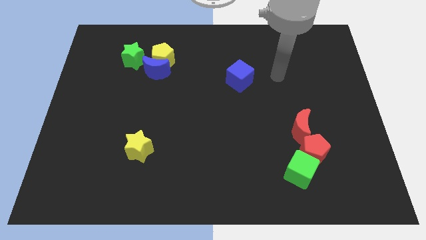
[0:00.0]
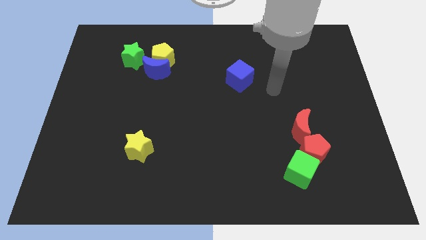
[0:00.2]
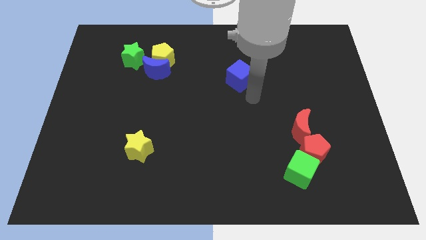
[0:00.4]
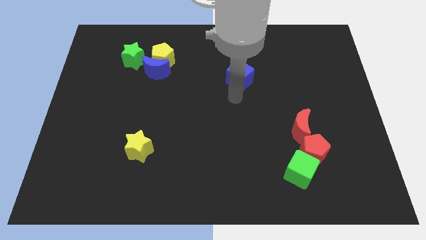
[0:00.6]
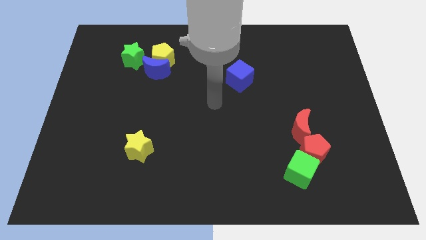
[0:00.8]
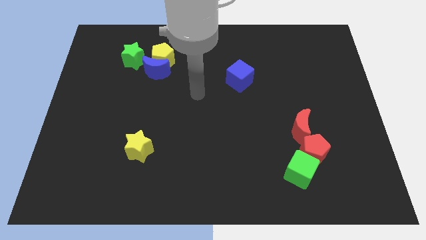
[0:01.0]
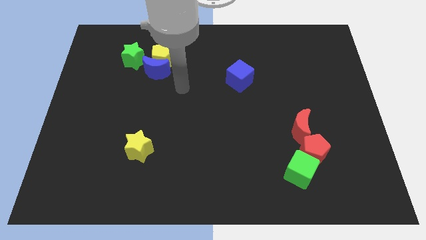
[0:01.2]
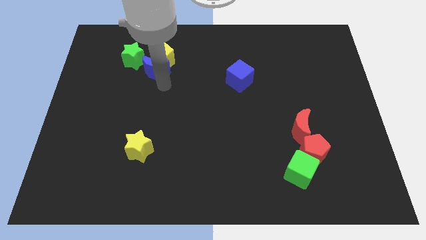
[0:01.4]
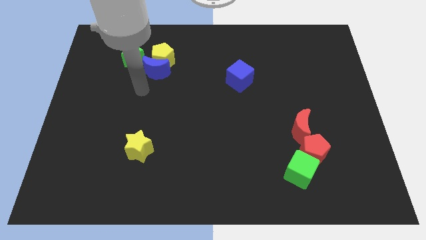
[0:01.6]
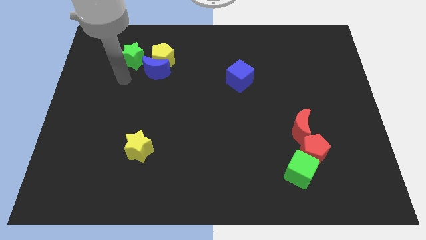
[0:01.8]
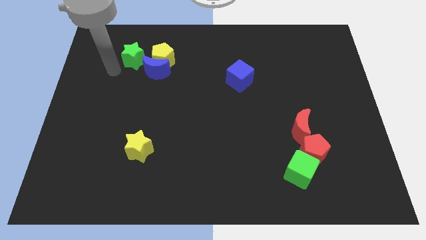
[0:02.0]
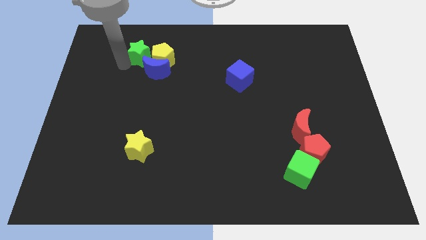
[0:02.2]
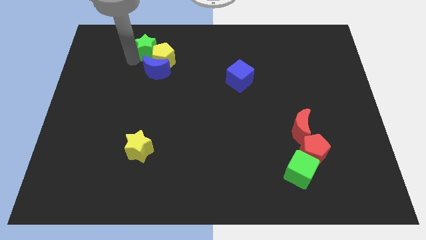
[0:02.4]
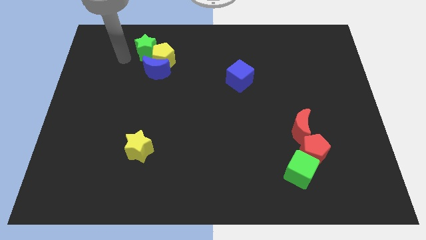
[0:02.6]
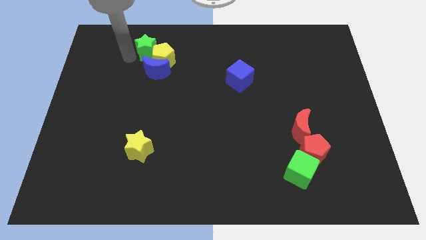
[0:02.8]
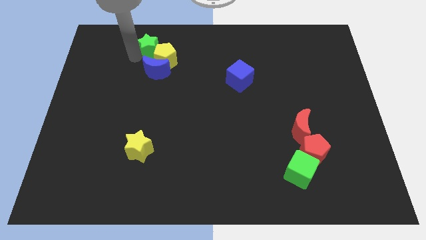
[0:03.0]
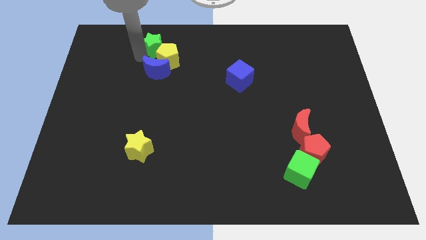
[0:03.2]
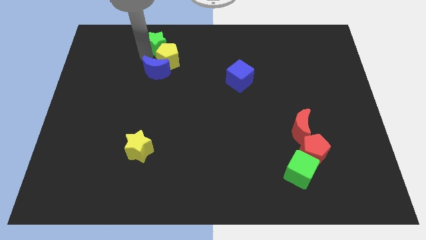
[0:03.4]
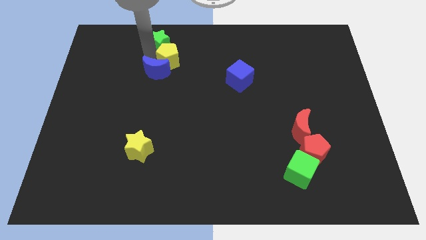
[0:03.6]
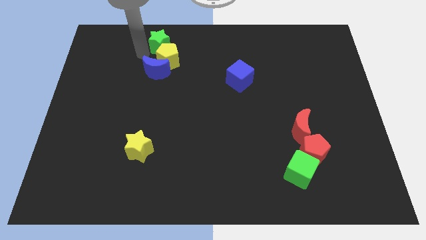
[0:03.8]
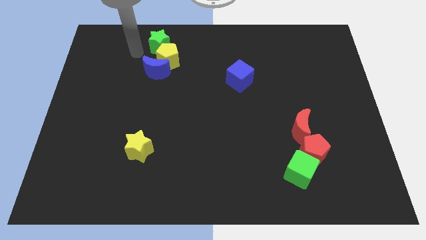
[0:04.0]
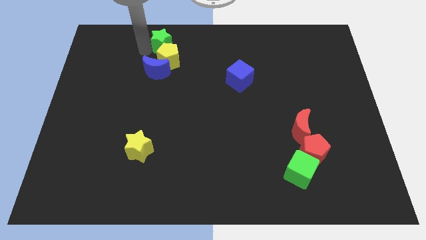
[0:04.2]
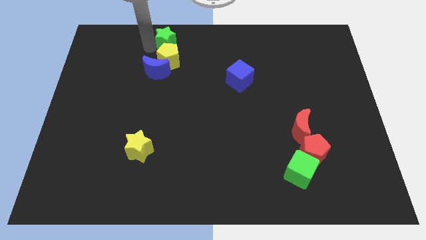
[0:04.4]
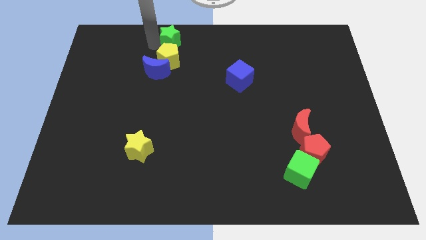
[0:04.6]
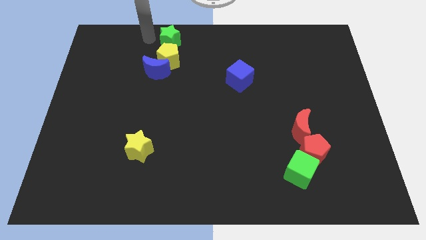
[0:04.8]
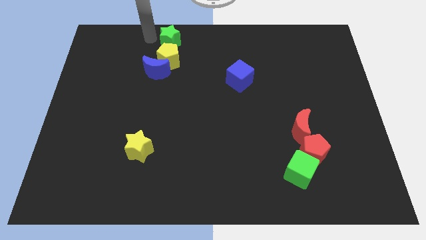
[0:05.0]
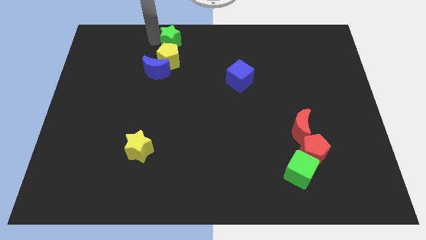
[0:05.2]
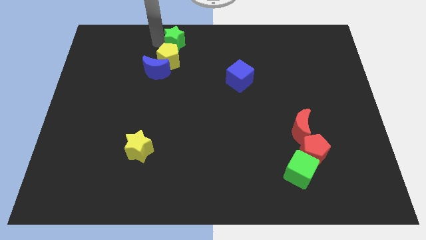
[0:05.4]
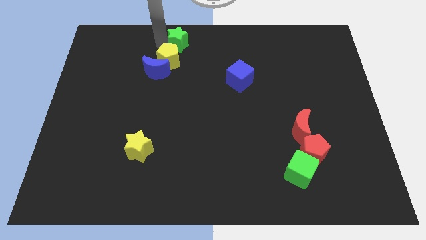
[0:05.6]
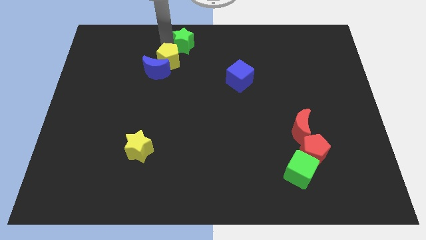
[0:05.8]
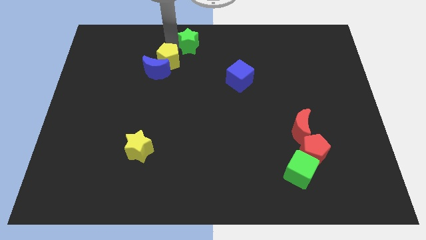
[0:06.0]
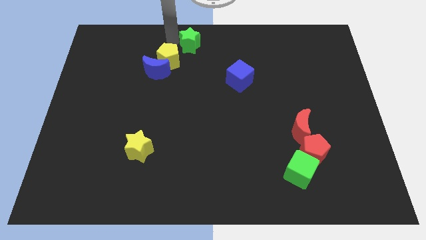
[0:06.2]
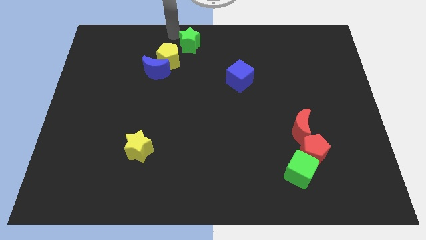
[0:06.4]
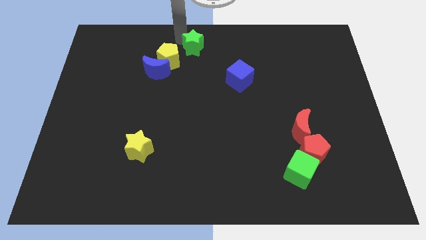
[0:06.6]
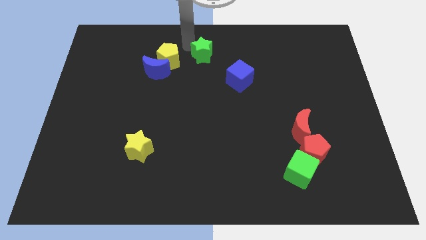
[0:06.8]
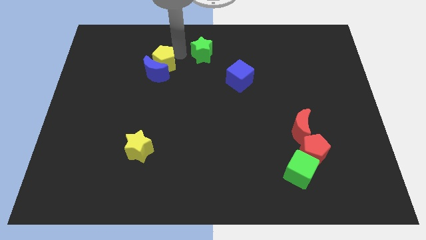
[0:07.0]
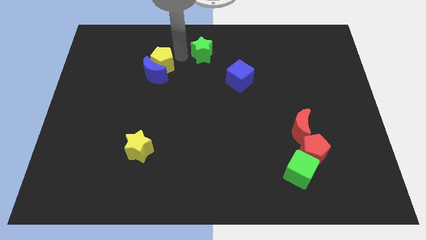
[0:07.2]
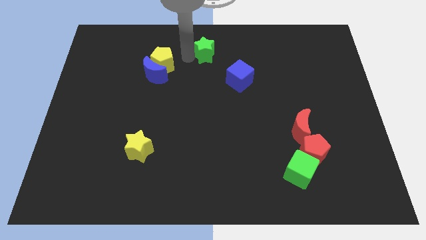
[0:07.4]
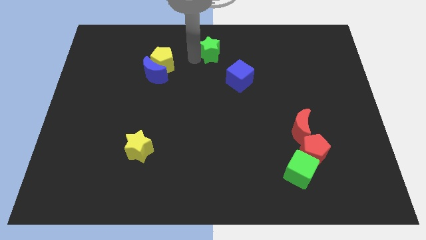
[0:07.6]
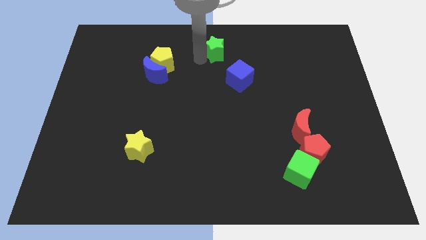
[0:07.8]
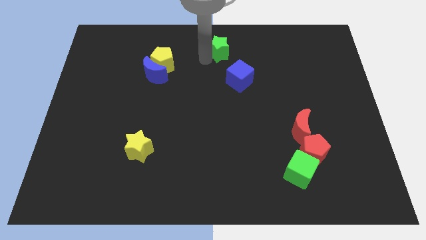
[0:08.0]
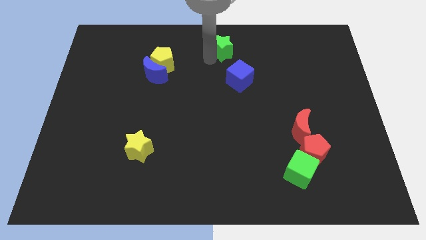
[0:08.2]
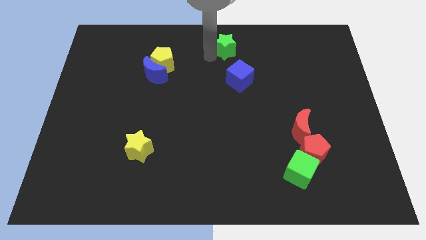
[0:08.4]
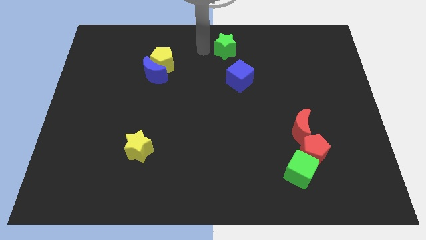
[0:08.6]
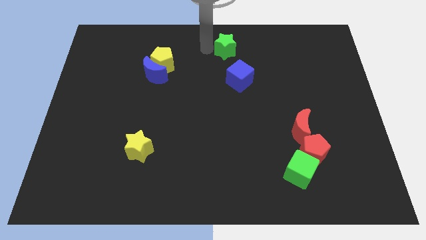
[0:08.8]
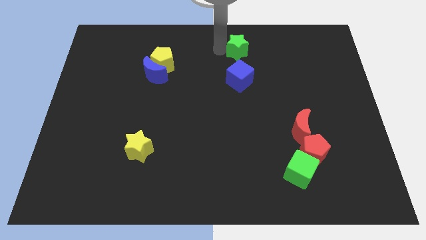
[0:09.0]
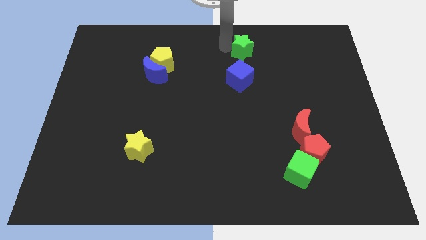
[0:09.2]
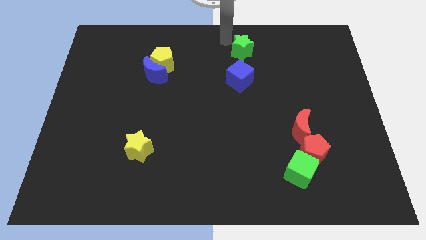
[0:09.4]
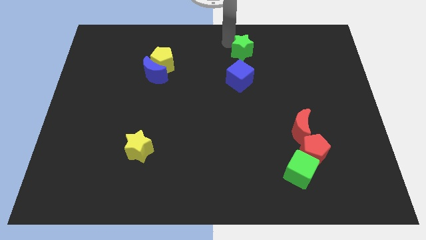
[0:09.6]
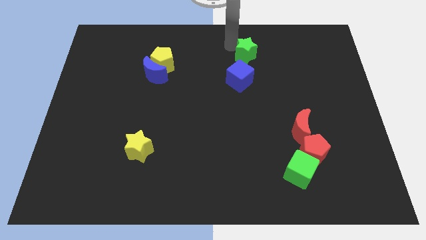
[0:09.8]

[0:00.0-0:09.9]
slide the green star diagonally up and to the right of the blue cube

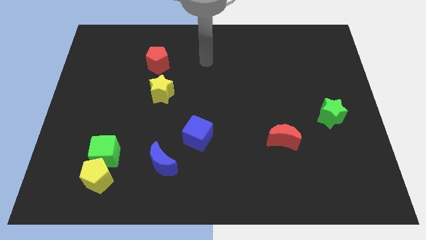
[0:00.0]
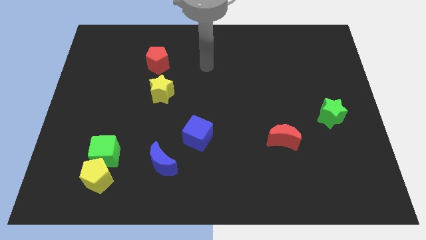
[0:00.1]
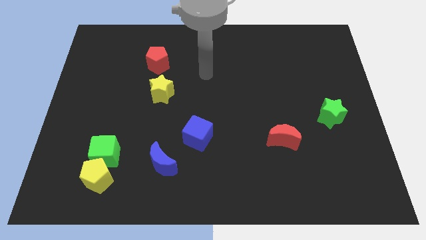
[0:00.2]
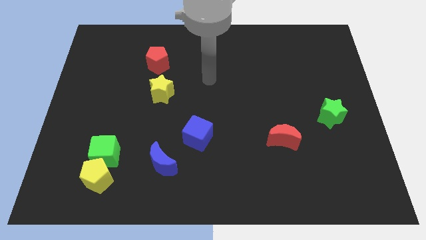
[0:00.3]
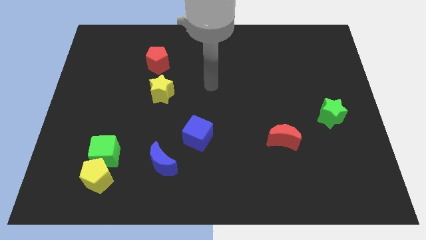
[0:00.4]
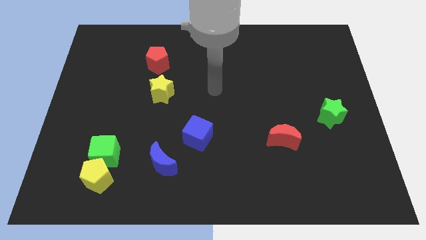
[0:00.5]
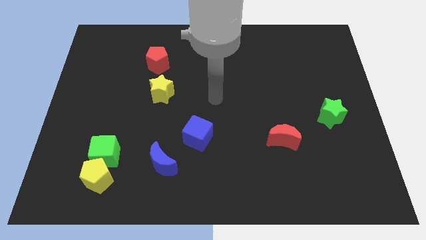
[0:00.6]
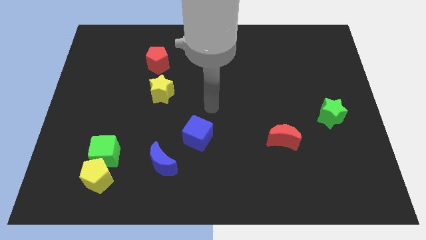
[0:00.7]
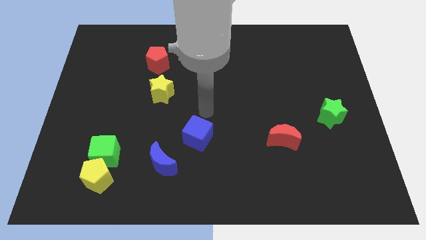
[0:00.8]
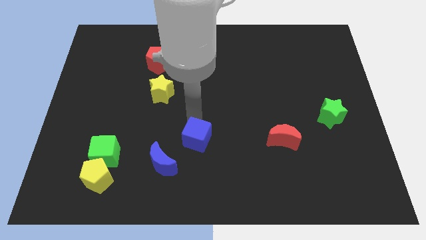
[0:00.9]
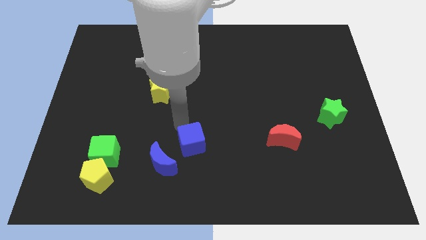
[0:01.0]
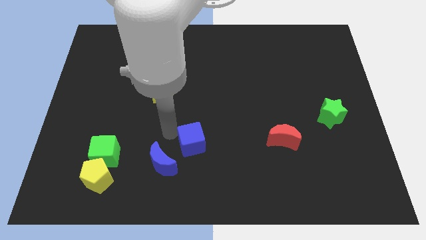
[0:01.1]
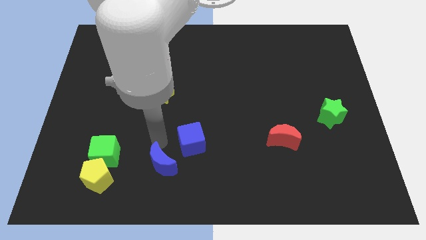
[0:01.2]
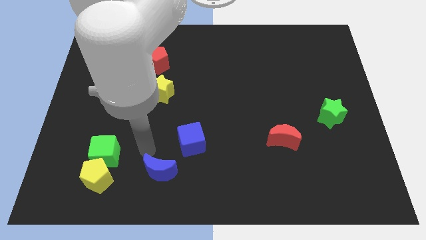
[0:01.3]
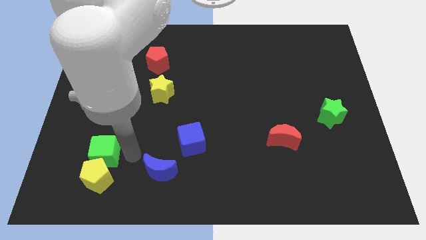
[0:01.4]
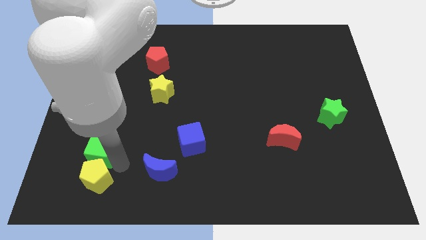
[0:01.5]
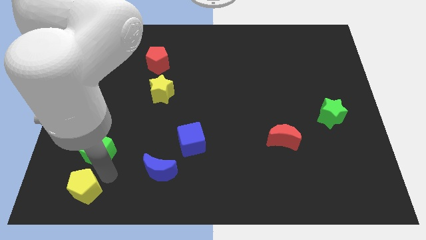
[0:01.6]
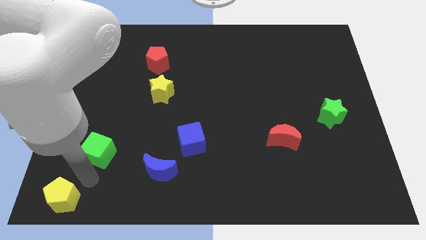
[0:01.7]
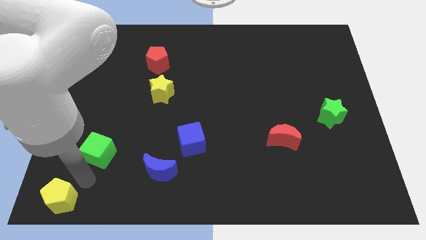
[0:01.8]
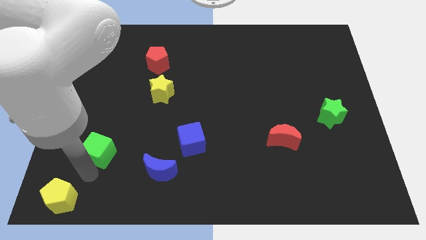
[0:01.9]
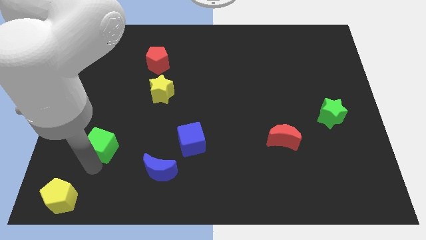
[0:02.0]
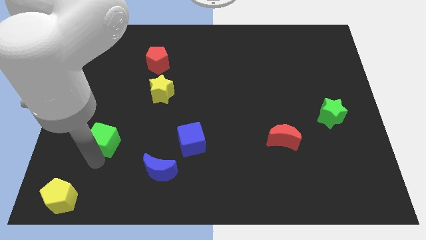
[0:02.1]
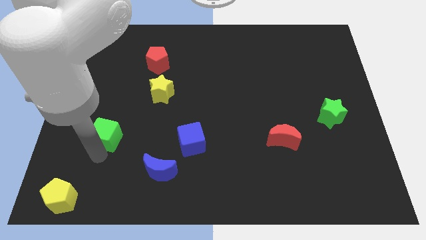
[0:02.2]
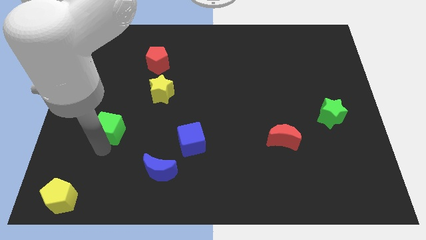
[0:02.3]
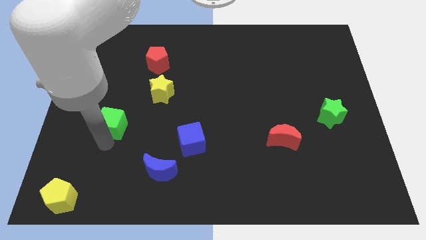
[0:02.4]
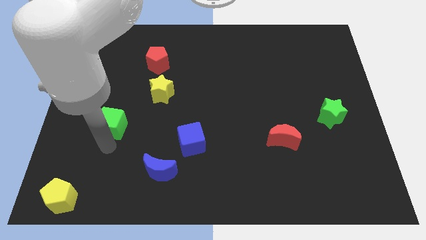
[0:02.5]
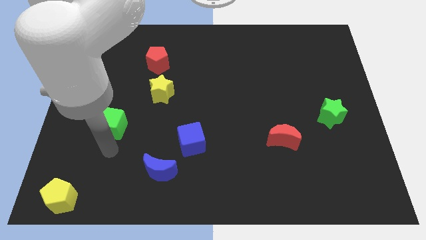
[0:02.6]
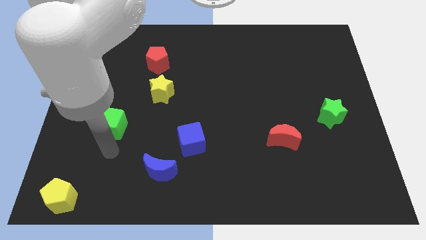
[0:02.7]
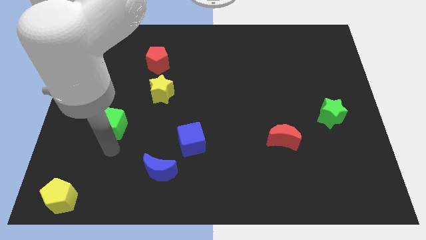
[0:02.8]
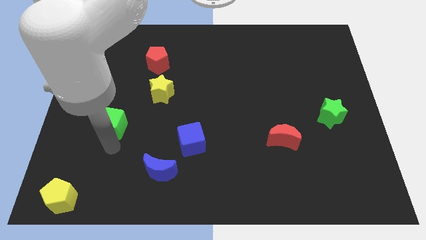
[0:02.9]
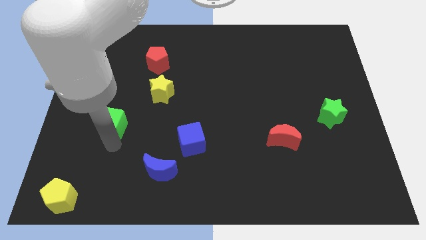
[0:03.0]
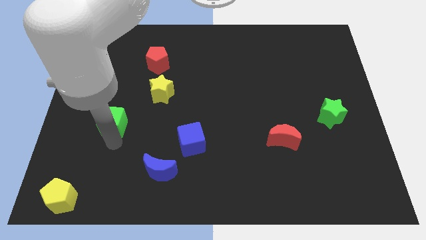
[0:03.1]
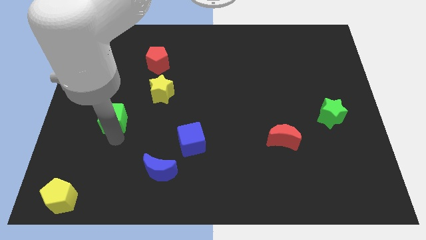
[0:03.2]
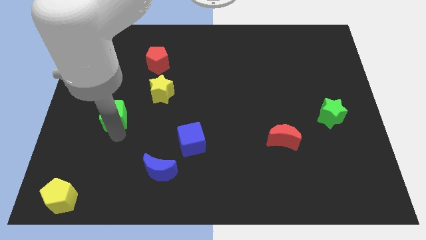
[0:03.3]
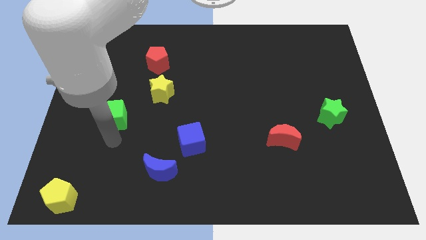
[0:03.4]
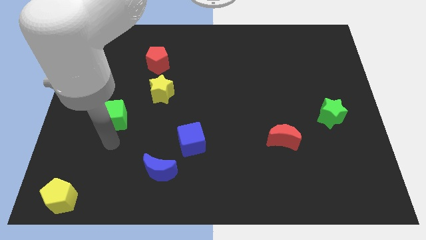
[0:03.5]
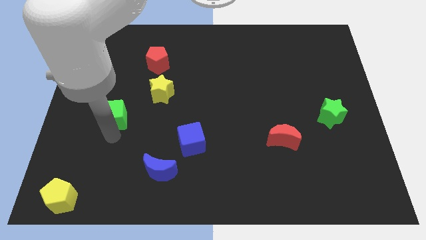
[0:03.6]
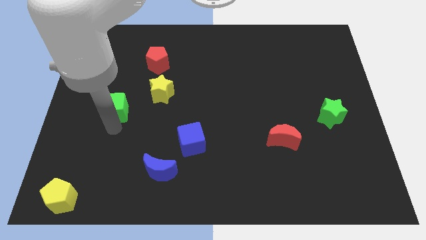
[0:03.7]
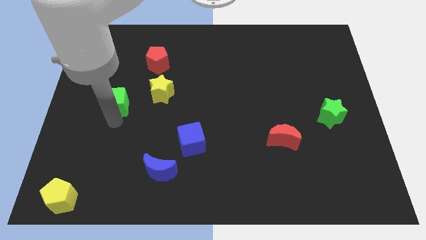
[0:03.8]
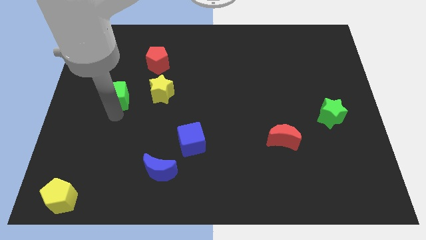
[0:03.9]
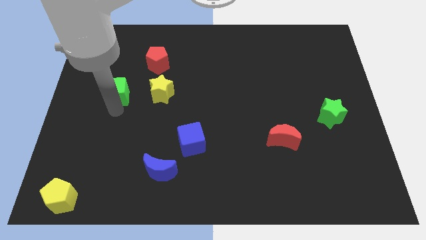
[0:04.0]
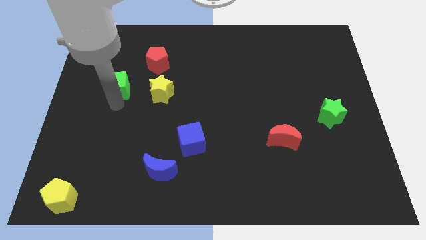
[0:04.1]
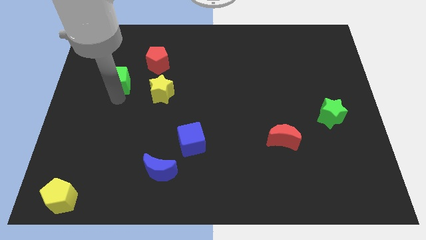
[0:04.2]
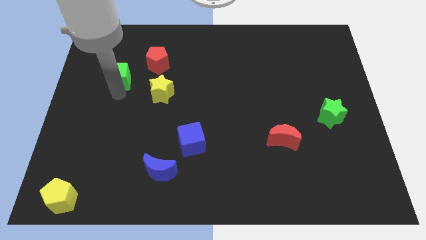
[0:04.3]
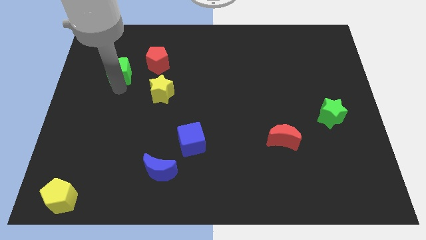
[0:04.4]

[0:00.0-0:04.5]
put the green cube just left of the red pentagon
